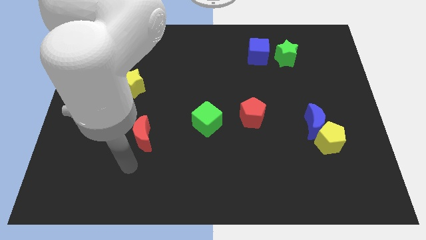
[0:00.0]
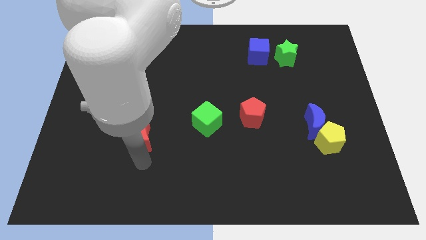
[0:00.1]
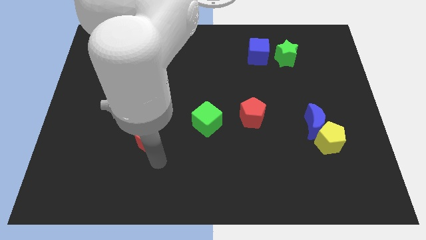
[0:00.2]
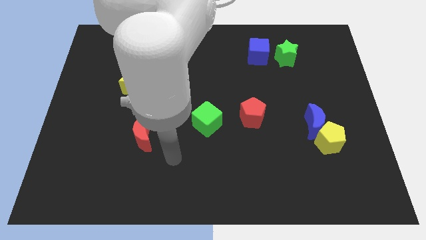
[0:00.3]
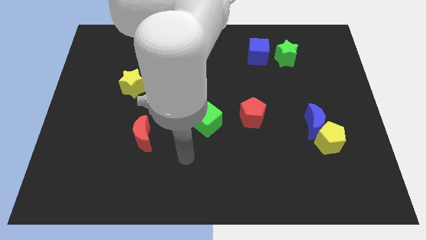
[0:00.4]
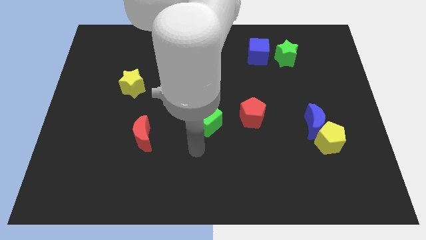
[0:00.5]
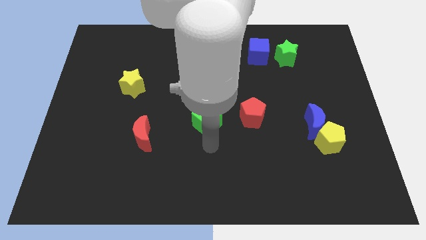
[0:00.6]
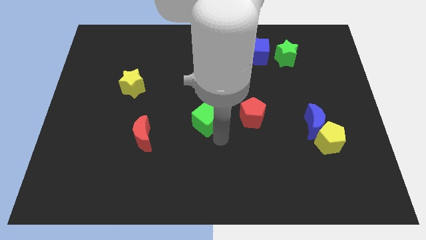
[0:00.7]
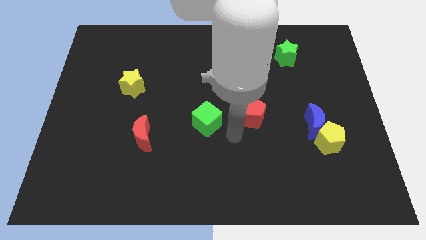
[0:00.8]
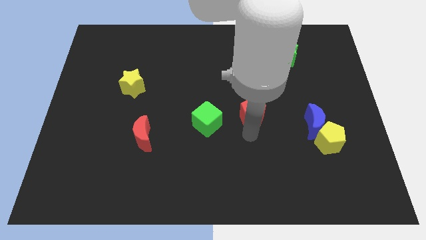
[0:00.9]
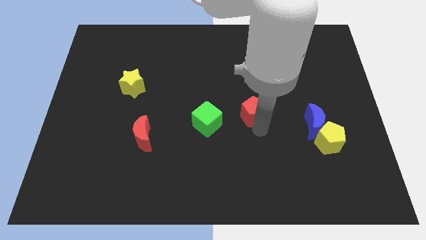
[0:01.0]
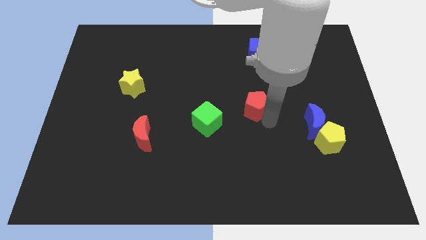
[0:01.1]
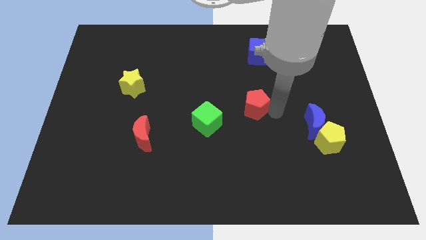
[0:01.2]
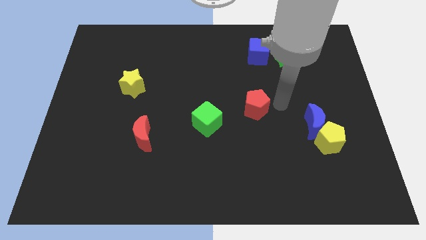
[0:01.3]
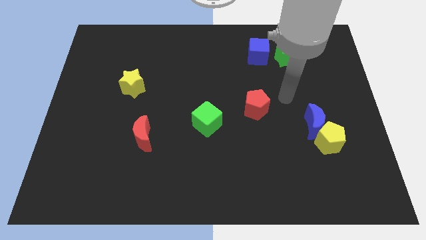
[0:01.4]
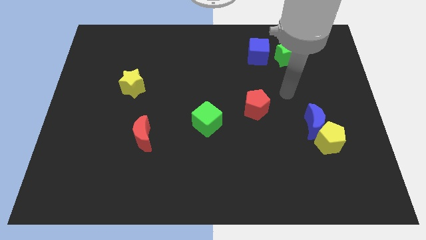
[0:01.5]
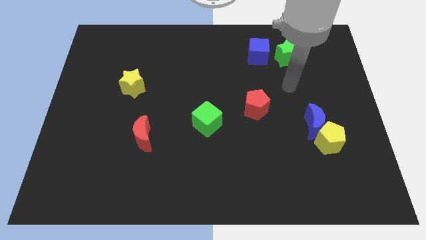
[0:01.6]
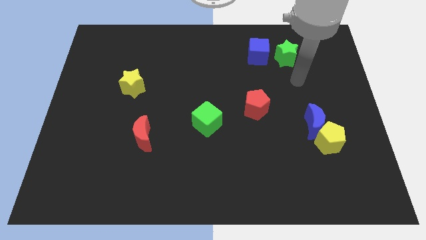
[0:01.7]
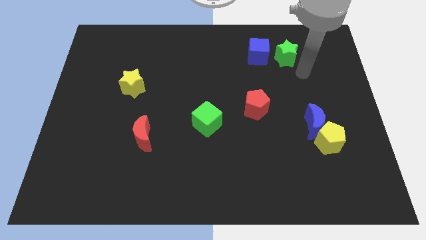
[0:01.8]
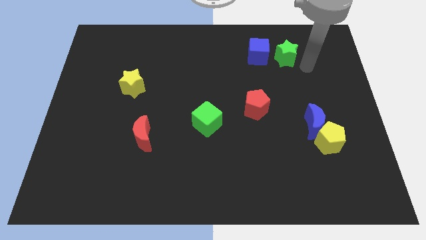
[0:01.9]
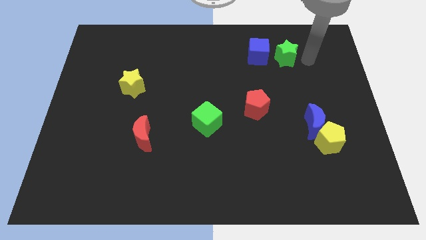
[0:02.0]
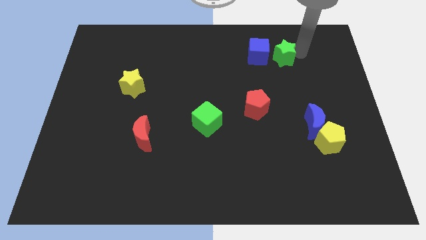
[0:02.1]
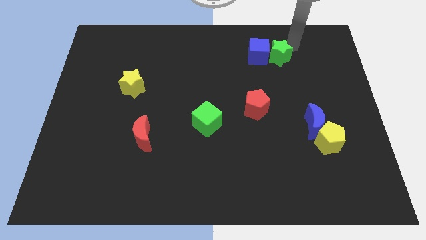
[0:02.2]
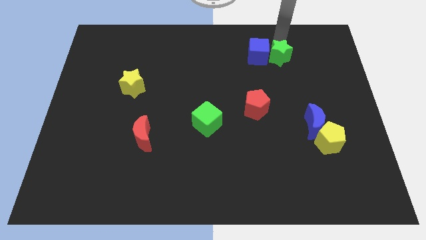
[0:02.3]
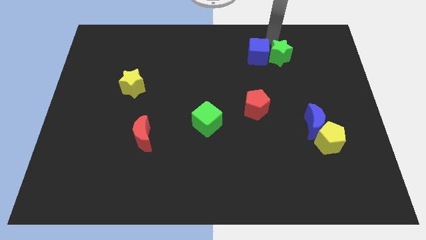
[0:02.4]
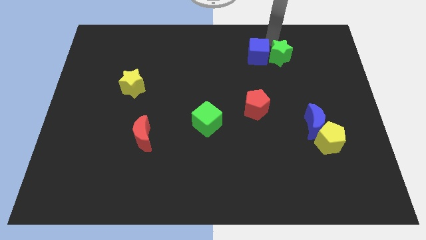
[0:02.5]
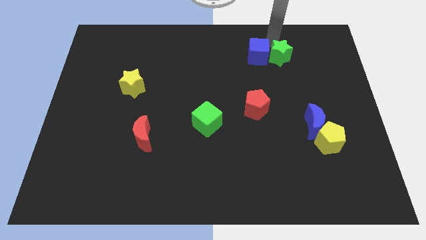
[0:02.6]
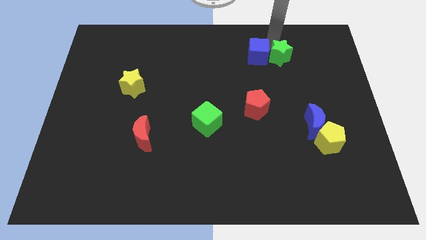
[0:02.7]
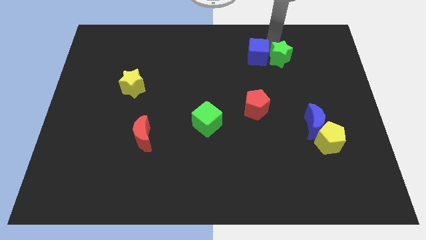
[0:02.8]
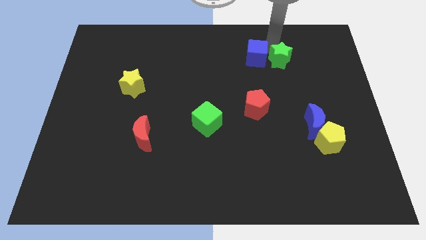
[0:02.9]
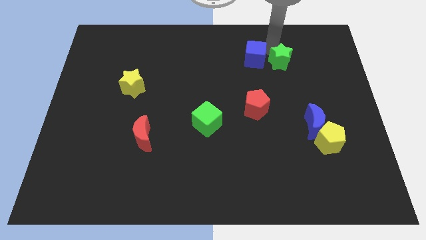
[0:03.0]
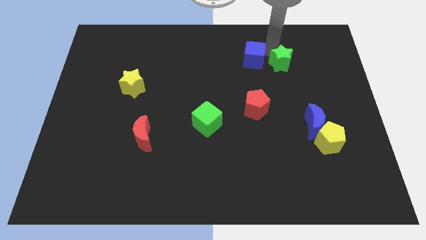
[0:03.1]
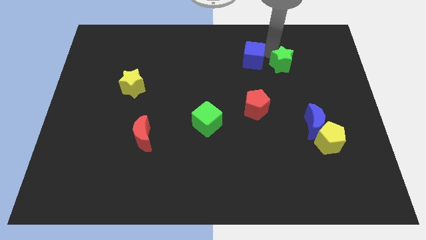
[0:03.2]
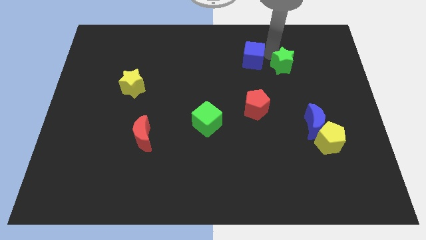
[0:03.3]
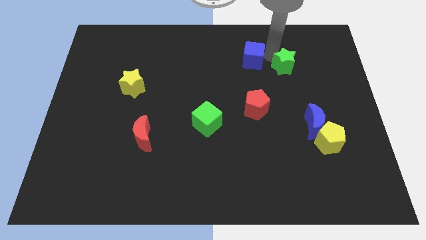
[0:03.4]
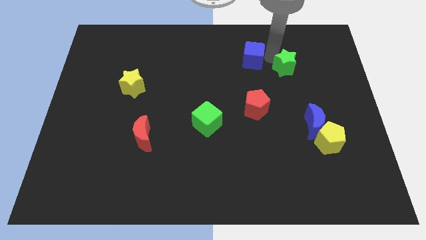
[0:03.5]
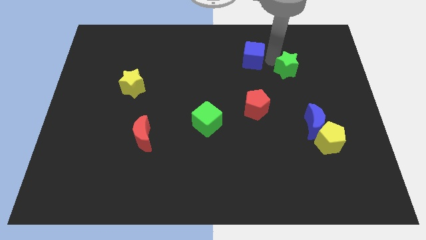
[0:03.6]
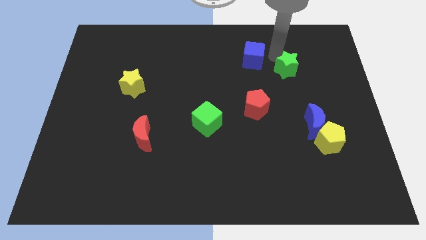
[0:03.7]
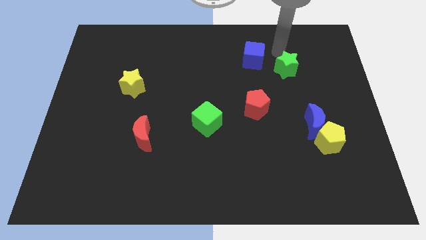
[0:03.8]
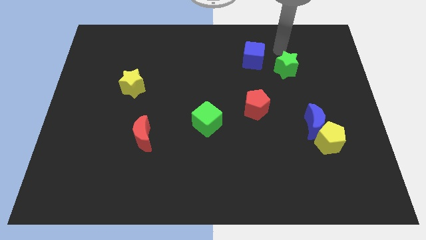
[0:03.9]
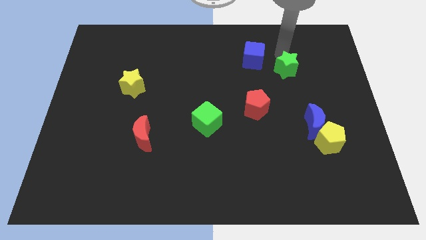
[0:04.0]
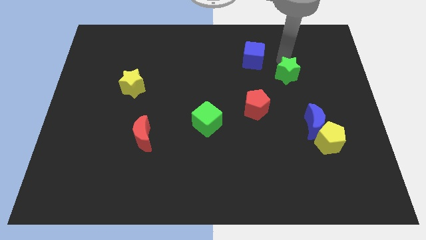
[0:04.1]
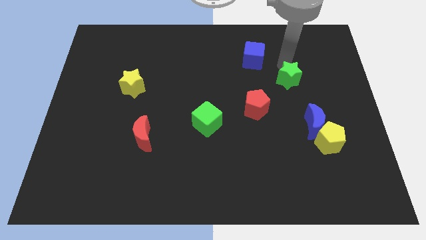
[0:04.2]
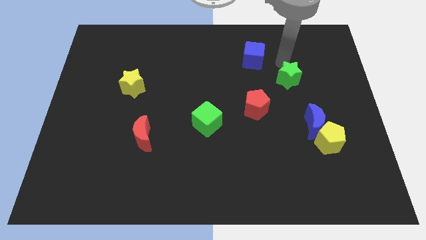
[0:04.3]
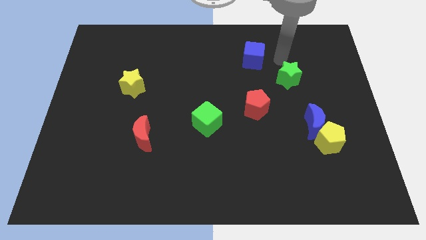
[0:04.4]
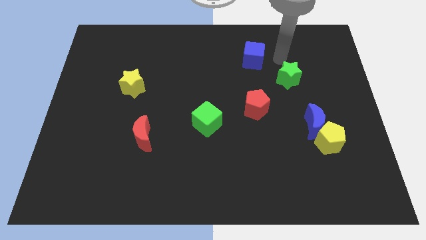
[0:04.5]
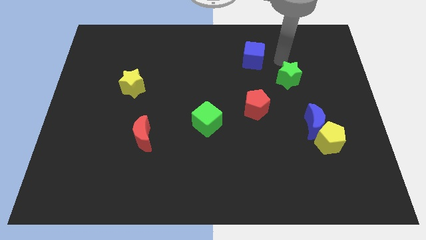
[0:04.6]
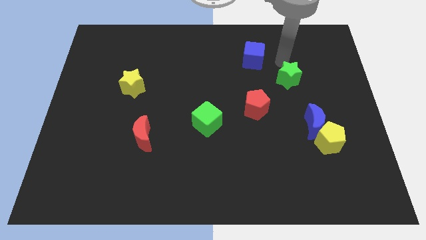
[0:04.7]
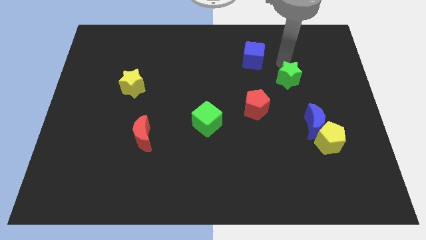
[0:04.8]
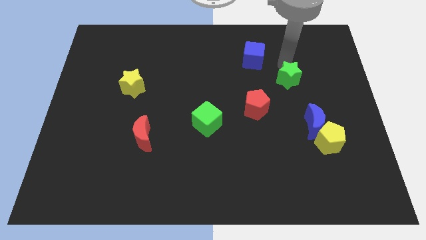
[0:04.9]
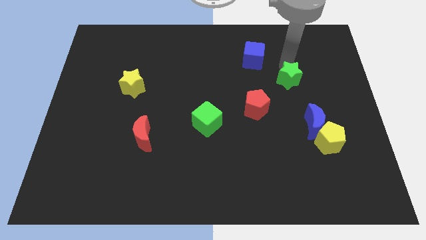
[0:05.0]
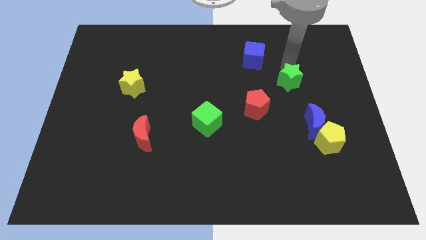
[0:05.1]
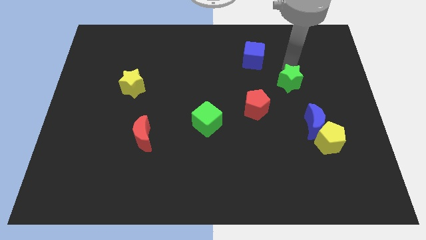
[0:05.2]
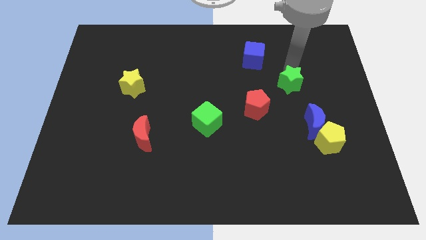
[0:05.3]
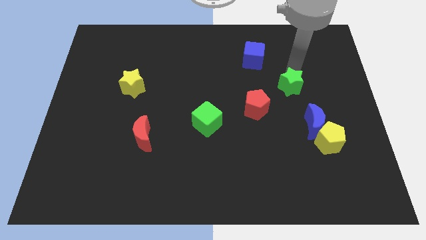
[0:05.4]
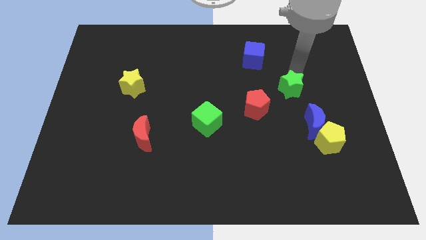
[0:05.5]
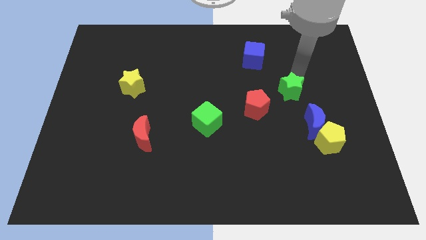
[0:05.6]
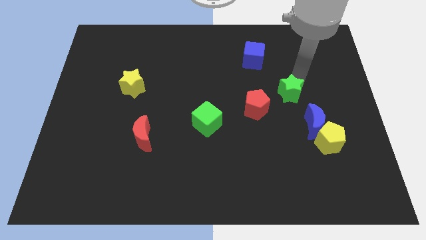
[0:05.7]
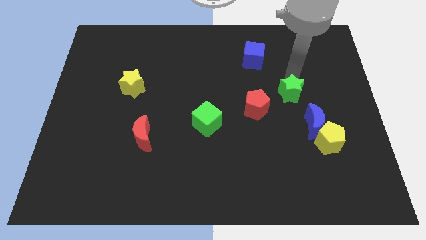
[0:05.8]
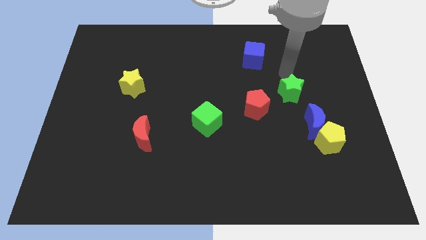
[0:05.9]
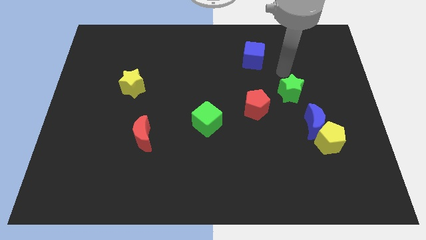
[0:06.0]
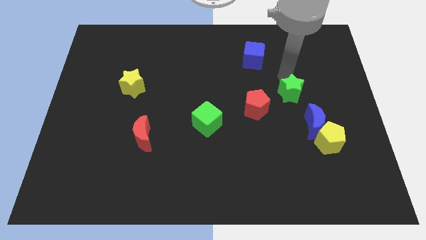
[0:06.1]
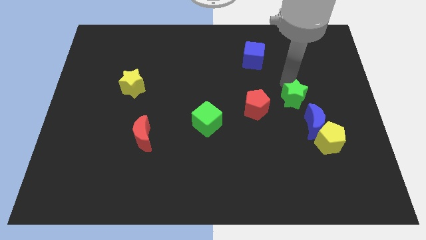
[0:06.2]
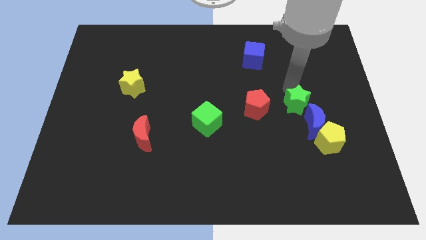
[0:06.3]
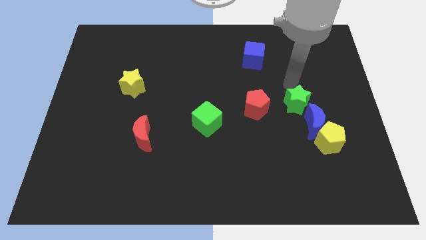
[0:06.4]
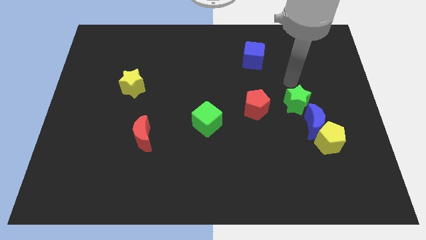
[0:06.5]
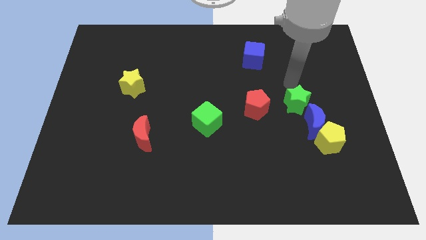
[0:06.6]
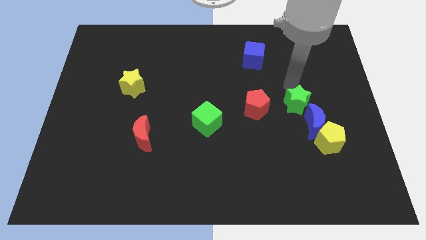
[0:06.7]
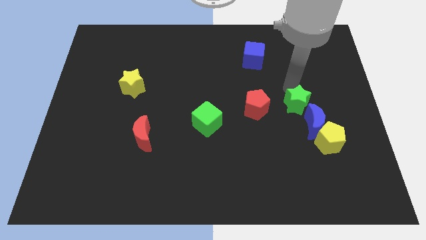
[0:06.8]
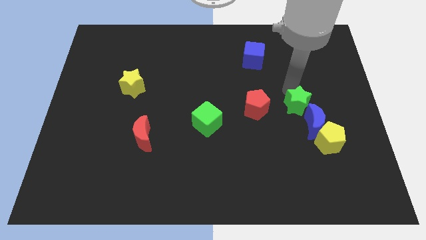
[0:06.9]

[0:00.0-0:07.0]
move the green star to the top left of the yellow pentagon

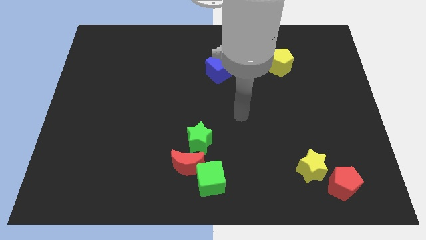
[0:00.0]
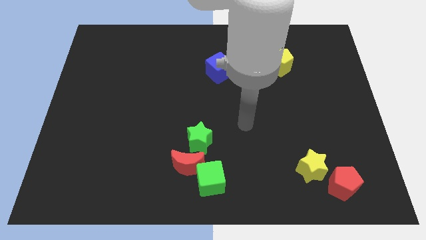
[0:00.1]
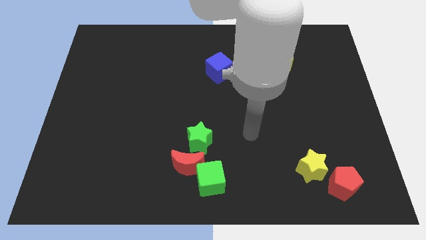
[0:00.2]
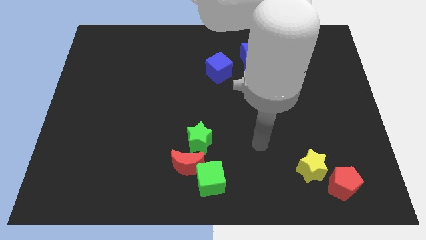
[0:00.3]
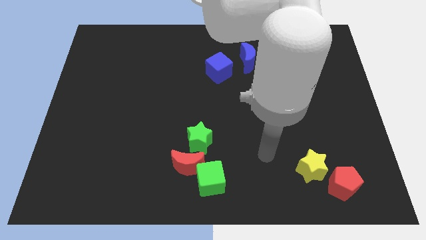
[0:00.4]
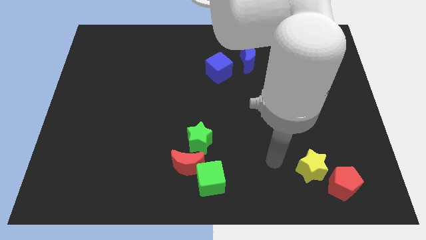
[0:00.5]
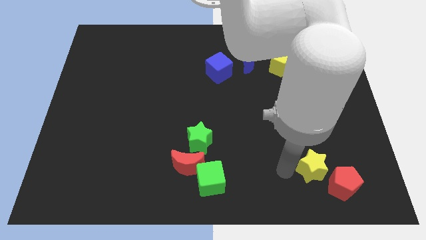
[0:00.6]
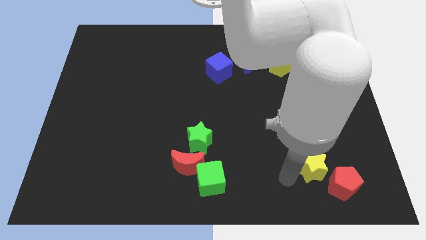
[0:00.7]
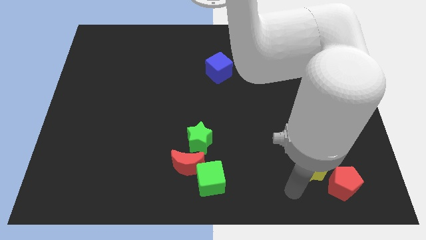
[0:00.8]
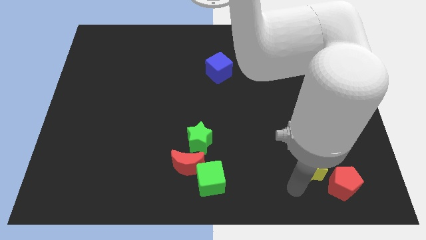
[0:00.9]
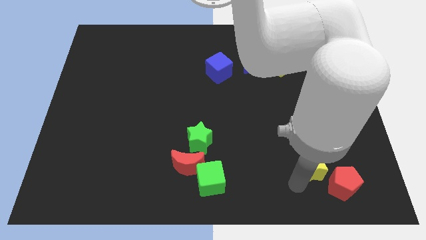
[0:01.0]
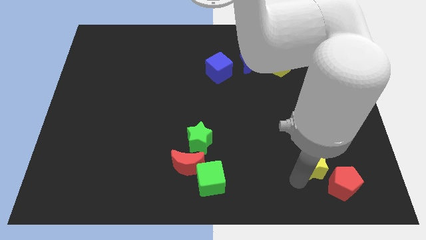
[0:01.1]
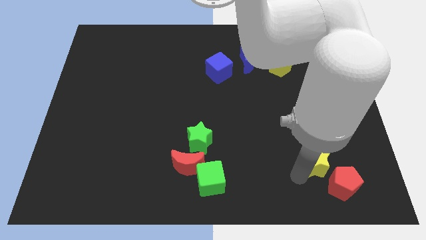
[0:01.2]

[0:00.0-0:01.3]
slide the yellow star to the top side of the red pentagon
